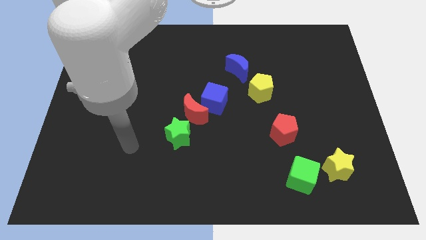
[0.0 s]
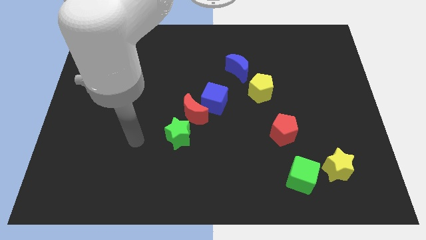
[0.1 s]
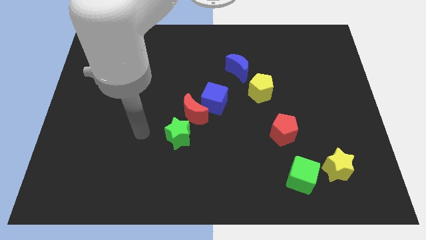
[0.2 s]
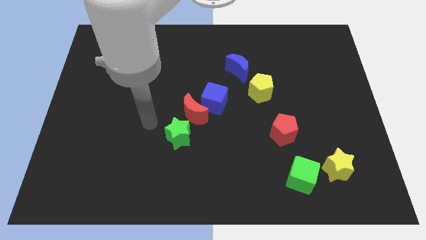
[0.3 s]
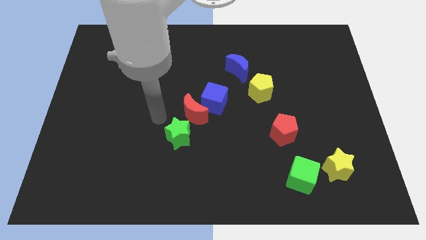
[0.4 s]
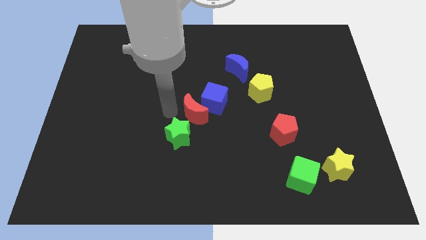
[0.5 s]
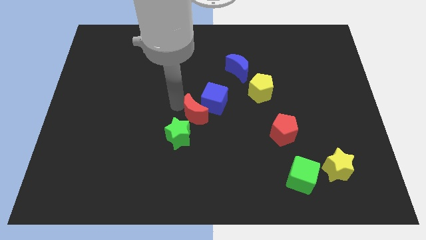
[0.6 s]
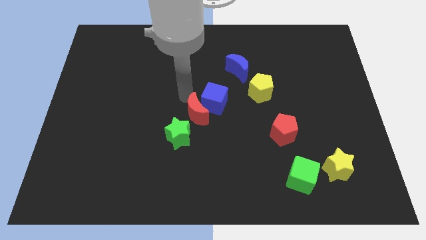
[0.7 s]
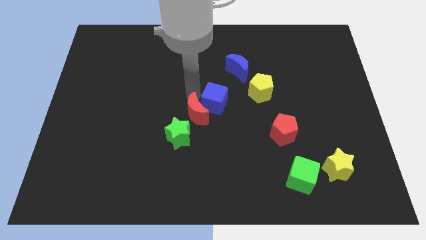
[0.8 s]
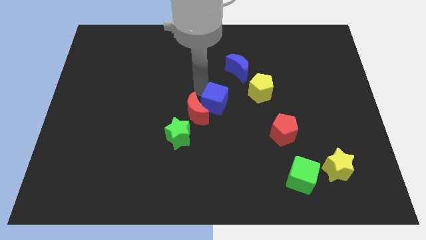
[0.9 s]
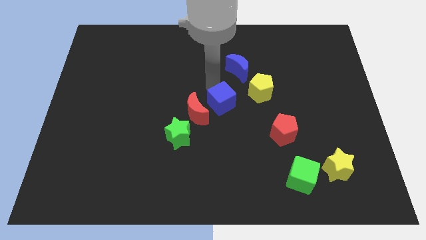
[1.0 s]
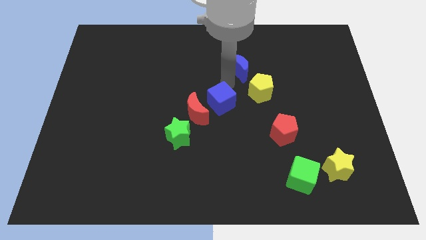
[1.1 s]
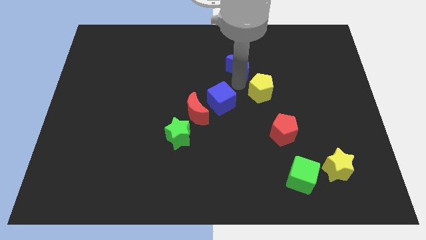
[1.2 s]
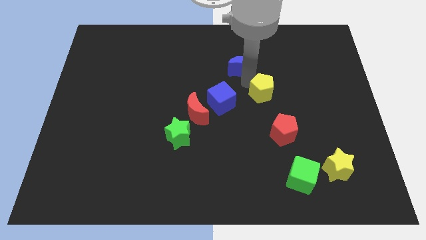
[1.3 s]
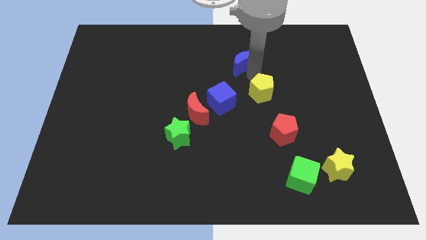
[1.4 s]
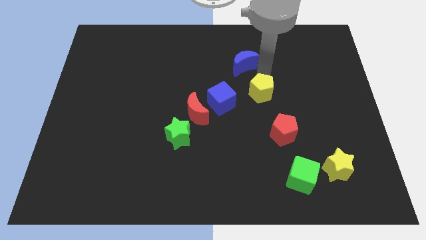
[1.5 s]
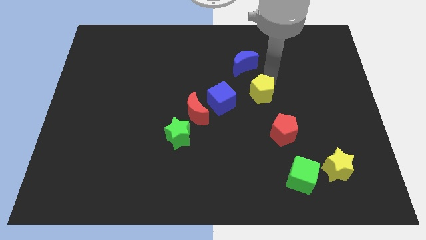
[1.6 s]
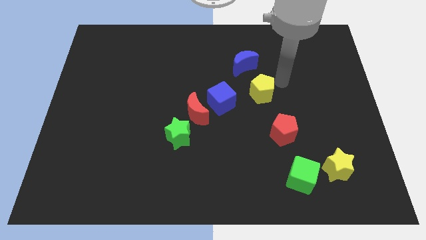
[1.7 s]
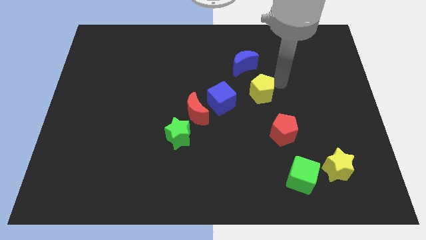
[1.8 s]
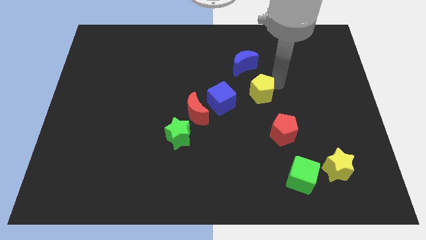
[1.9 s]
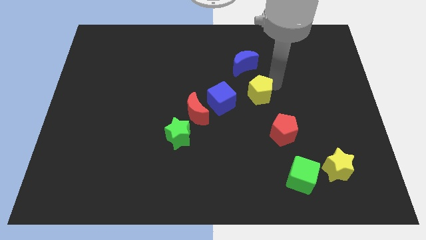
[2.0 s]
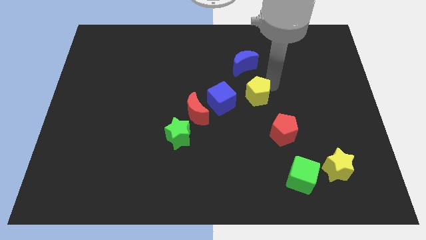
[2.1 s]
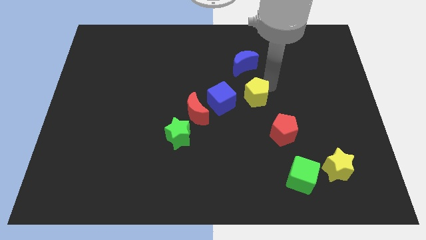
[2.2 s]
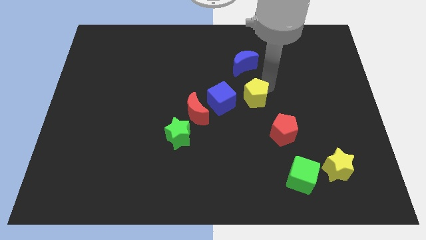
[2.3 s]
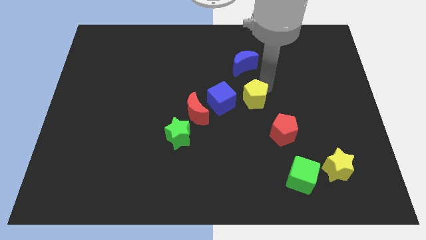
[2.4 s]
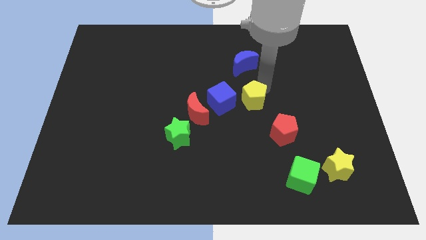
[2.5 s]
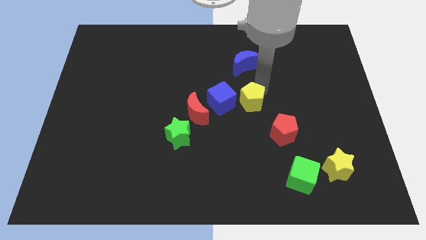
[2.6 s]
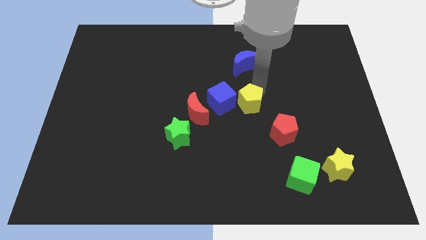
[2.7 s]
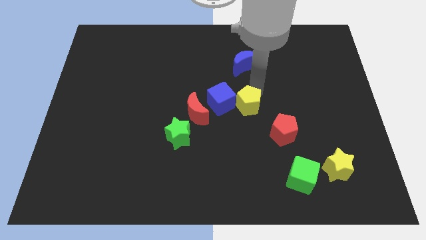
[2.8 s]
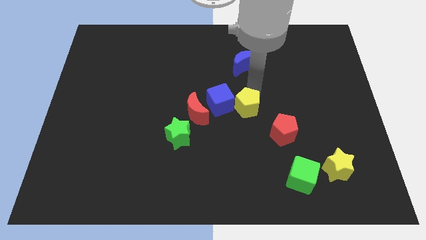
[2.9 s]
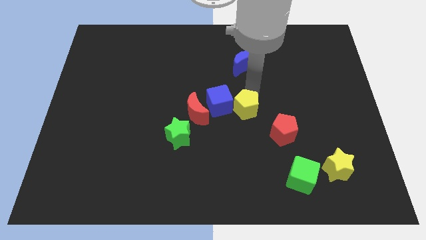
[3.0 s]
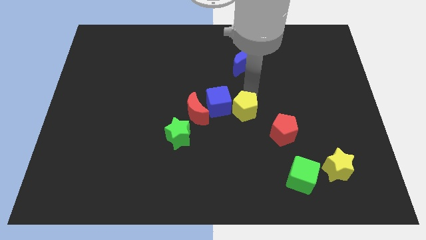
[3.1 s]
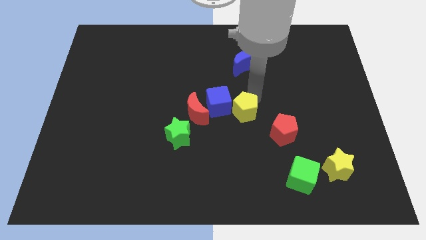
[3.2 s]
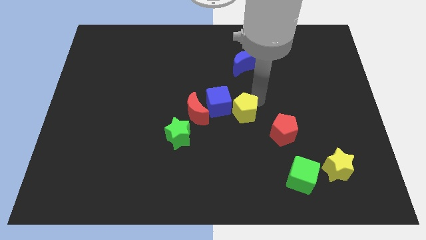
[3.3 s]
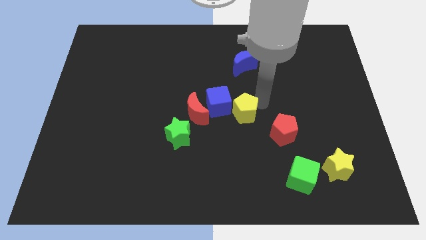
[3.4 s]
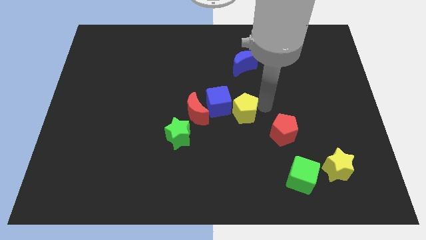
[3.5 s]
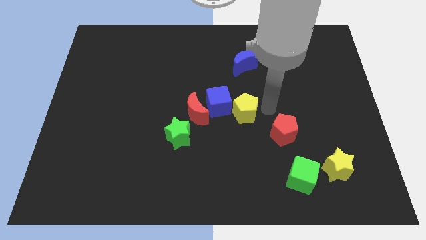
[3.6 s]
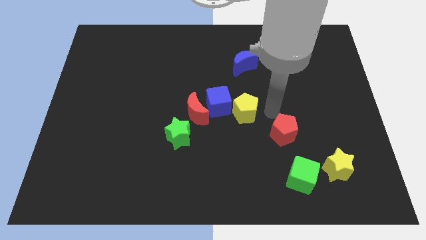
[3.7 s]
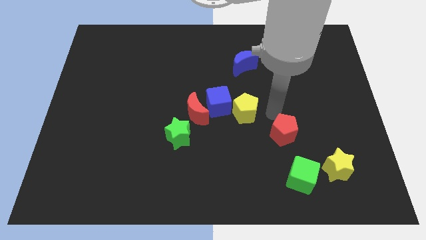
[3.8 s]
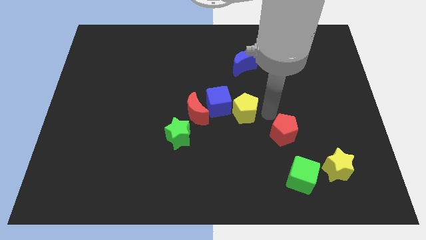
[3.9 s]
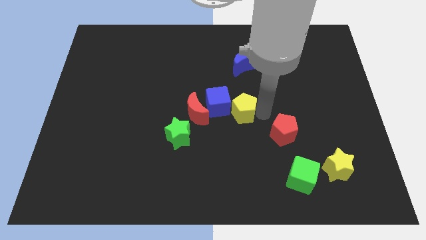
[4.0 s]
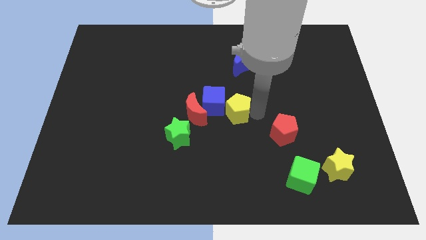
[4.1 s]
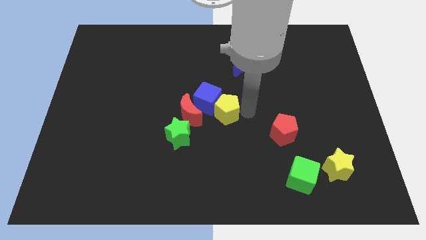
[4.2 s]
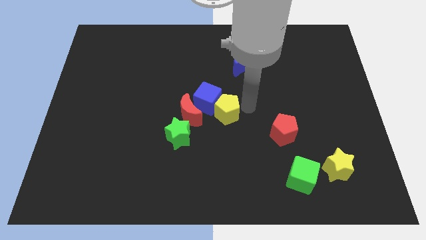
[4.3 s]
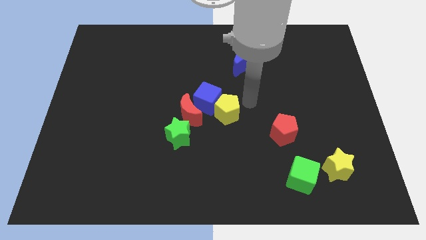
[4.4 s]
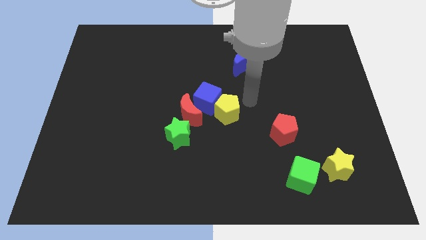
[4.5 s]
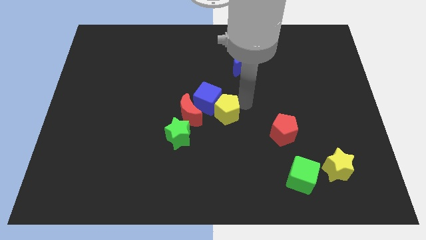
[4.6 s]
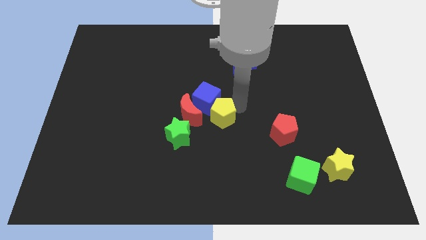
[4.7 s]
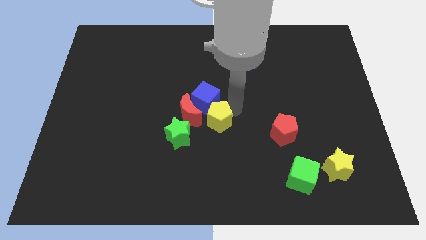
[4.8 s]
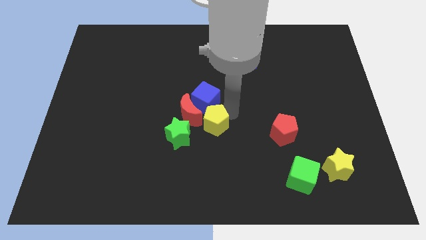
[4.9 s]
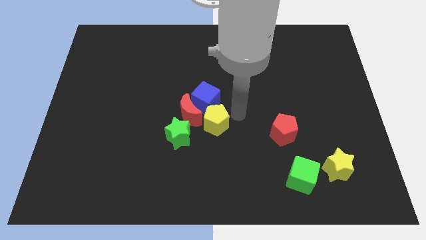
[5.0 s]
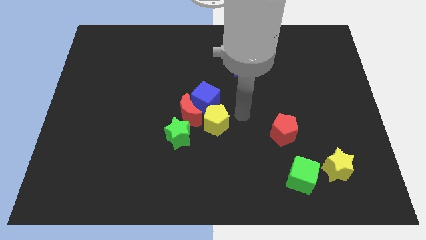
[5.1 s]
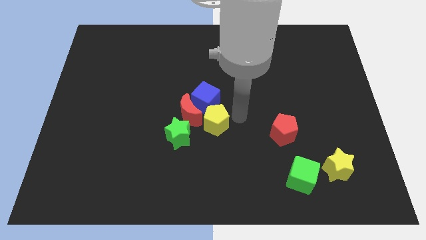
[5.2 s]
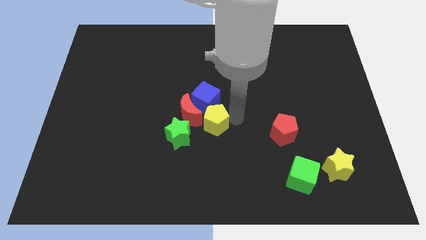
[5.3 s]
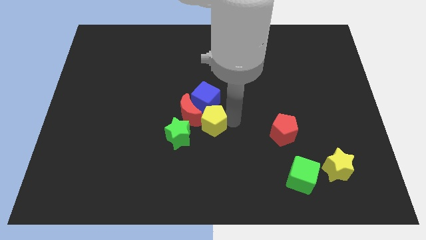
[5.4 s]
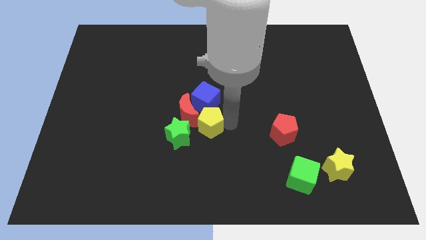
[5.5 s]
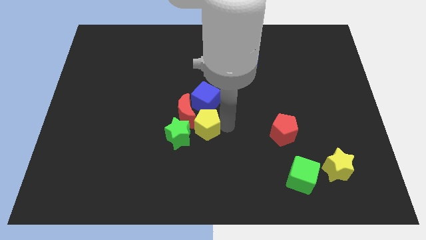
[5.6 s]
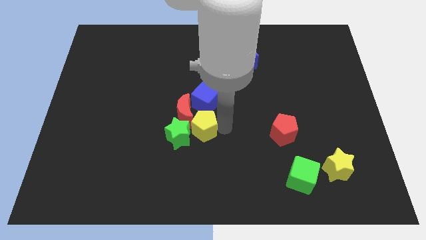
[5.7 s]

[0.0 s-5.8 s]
put the yellow pentagon to the green star

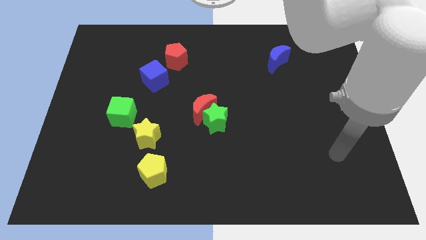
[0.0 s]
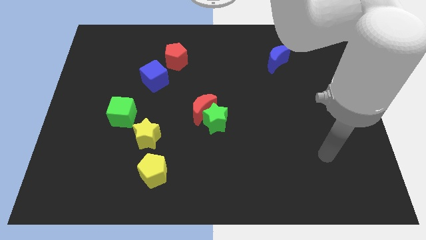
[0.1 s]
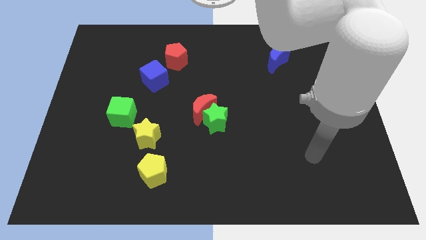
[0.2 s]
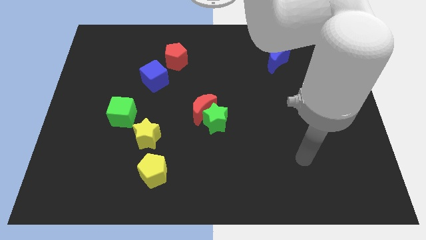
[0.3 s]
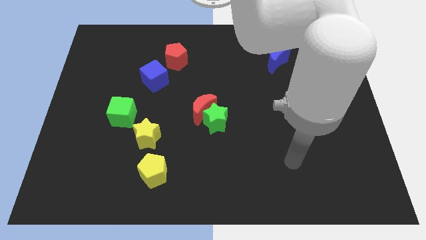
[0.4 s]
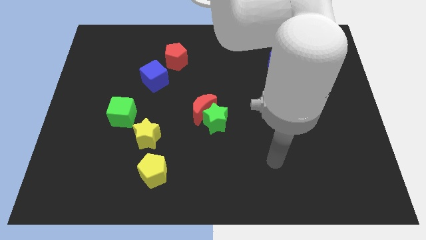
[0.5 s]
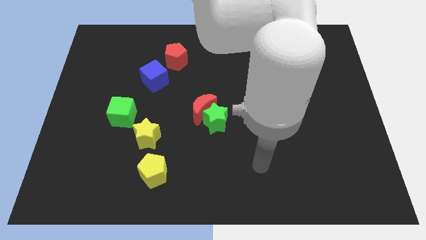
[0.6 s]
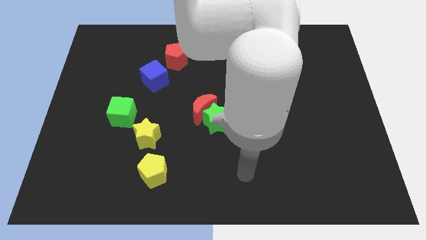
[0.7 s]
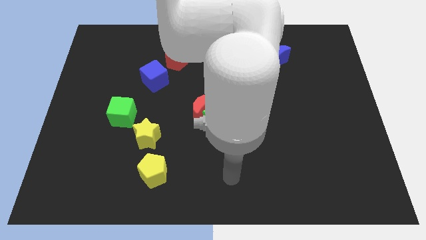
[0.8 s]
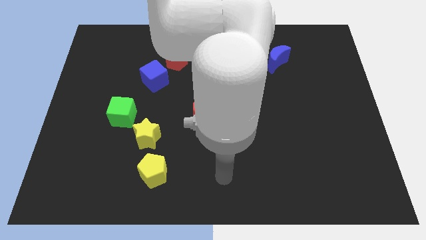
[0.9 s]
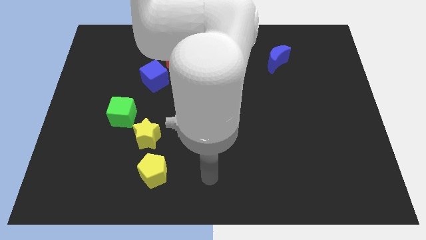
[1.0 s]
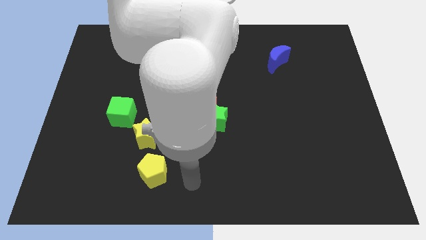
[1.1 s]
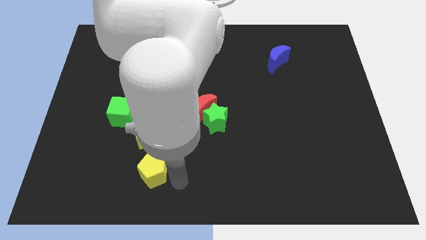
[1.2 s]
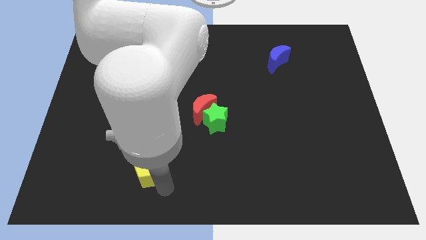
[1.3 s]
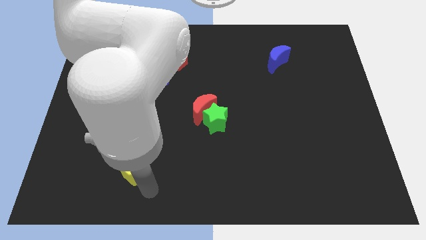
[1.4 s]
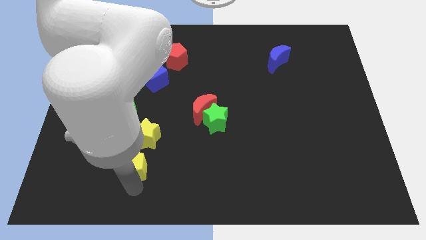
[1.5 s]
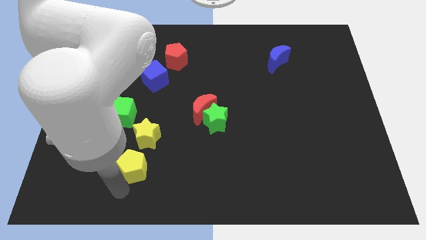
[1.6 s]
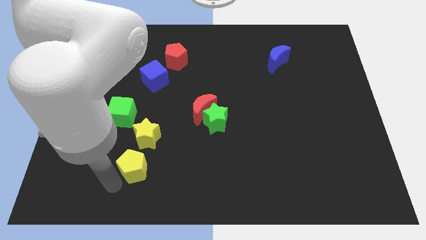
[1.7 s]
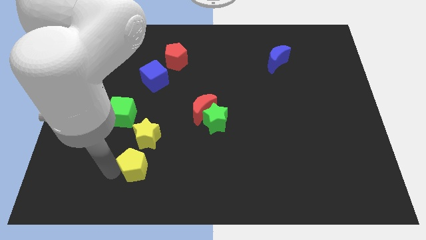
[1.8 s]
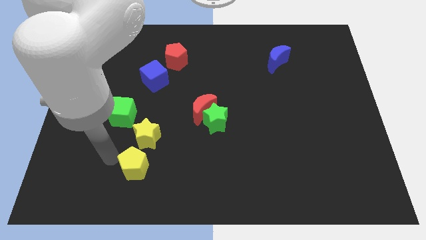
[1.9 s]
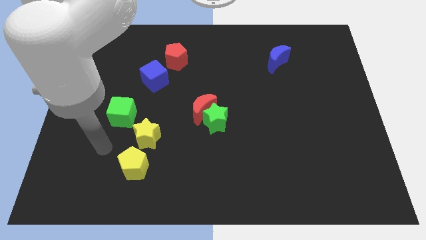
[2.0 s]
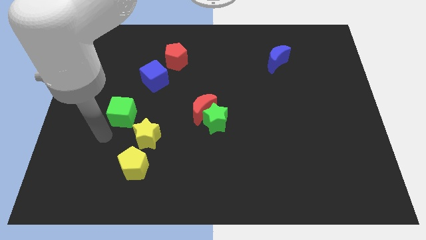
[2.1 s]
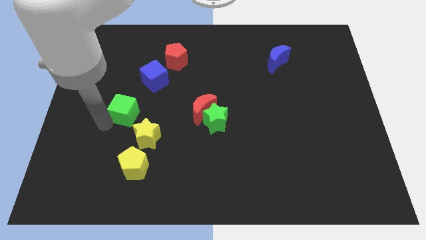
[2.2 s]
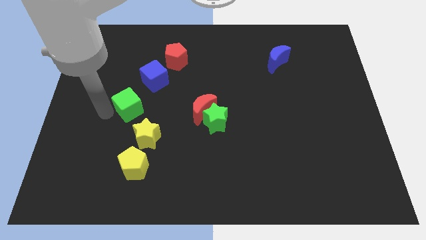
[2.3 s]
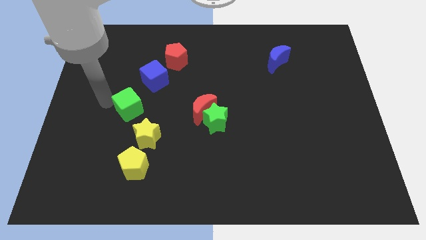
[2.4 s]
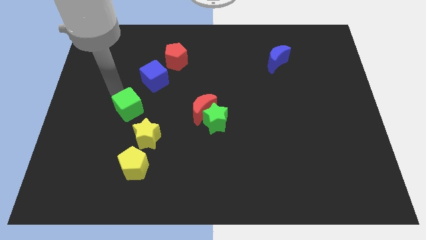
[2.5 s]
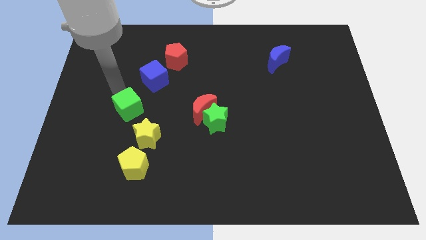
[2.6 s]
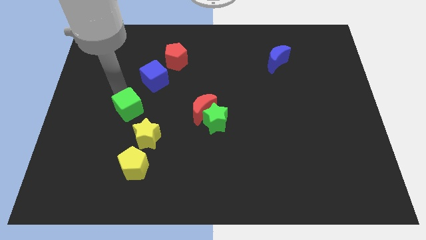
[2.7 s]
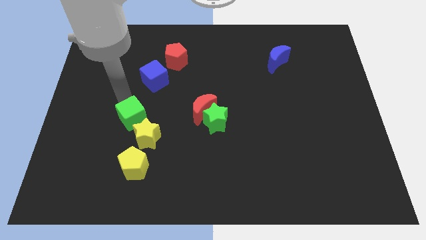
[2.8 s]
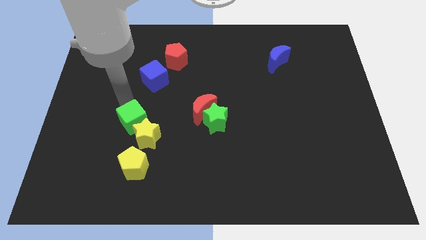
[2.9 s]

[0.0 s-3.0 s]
push the green cube to the yellow star
